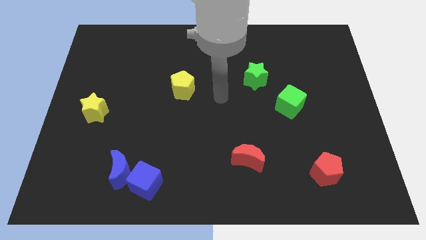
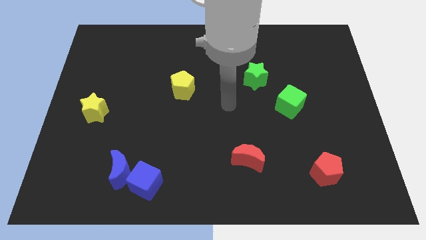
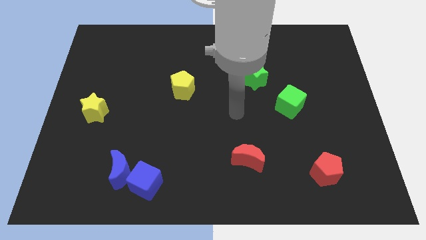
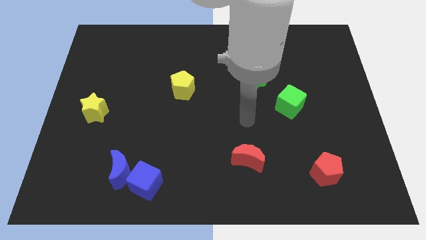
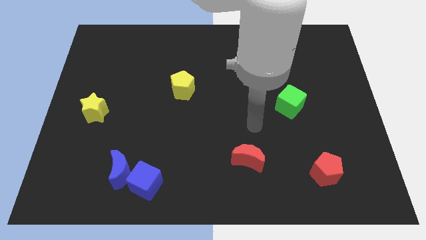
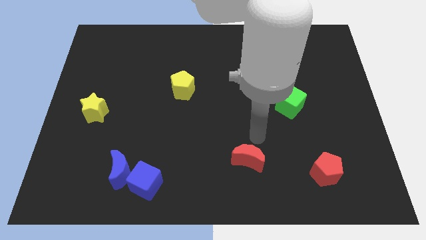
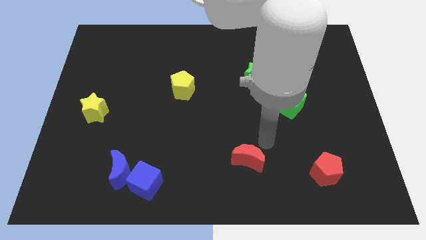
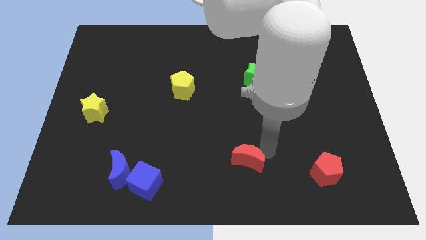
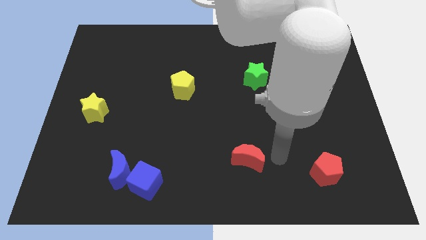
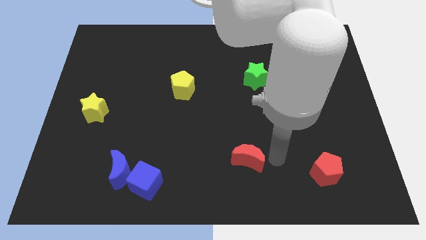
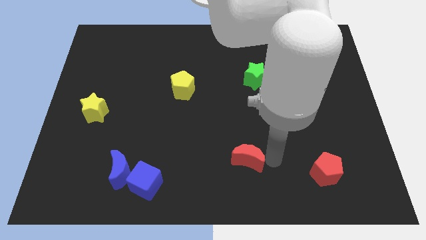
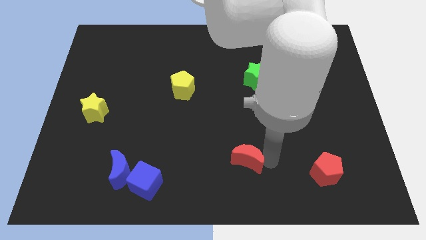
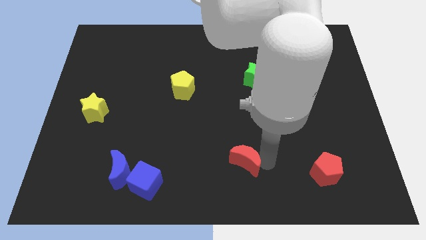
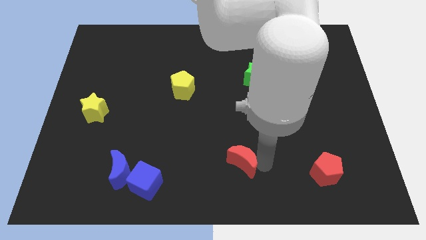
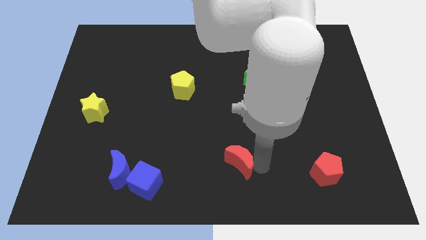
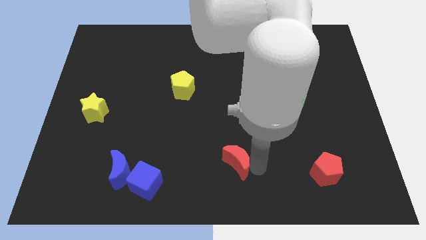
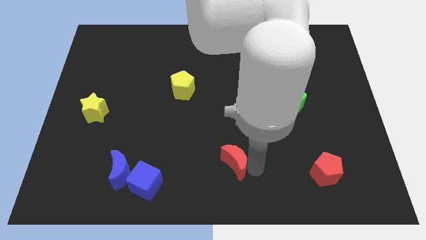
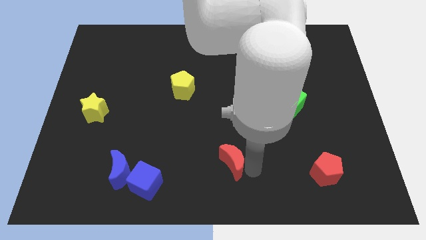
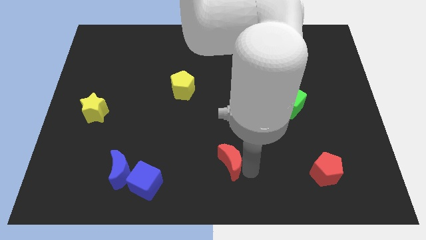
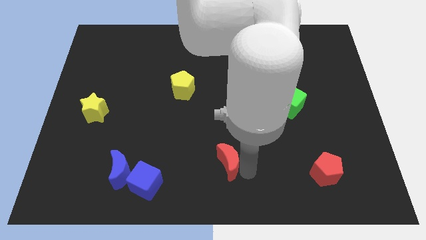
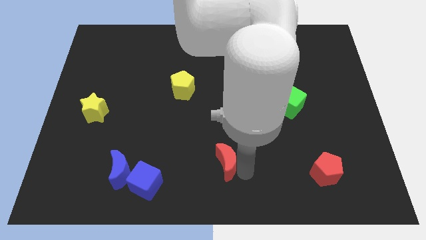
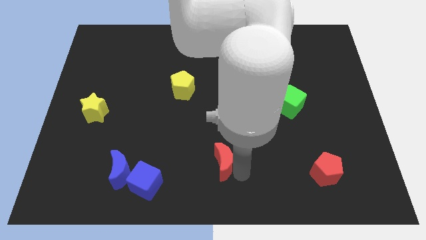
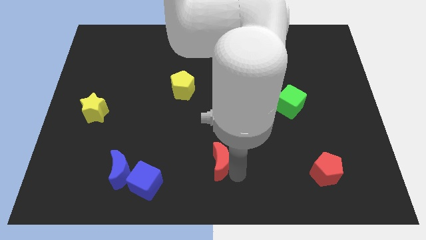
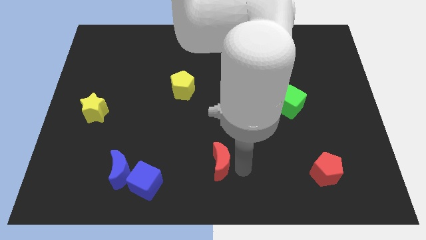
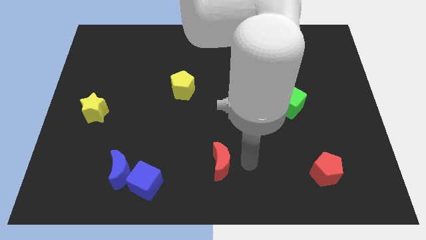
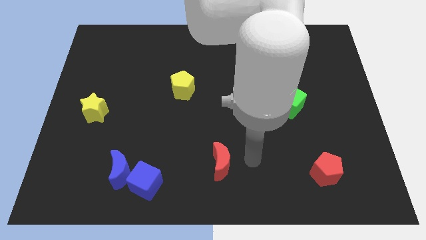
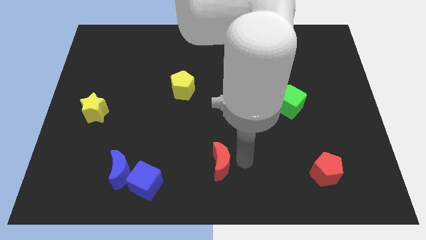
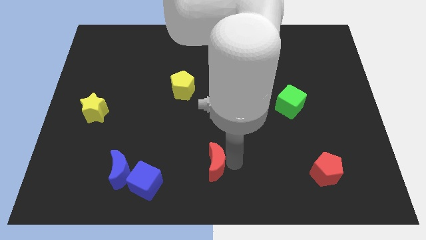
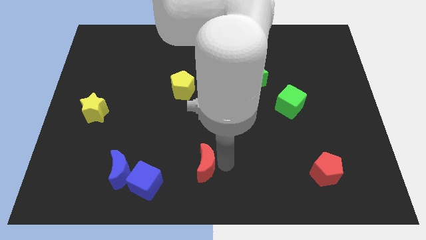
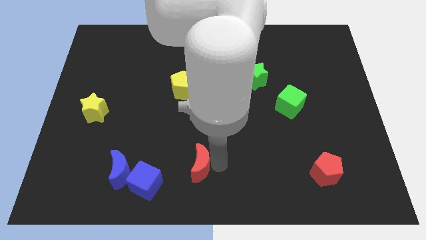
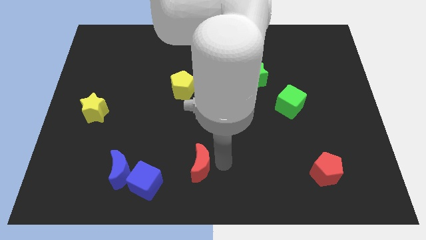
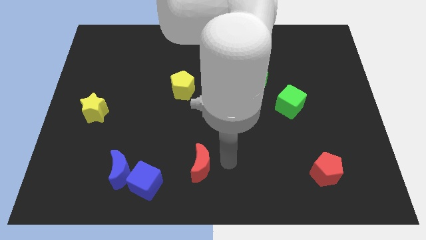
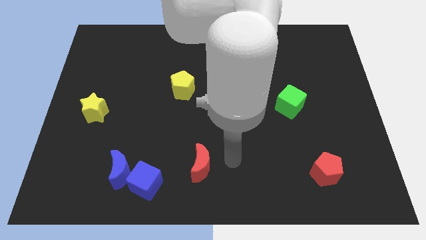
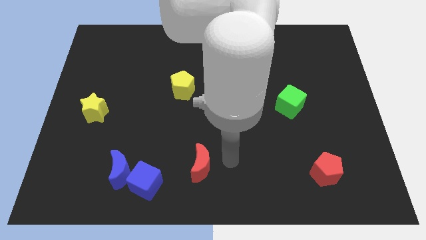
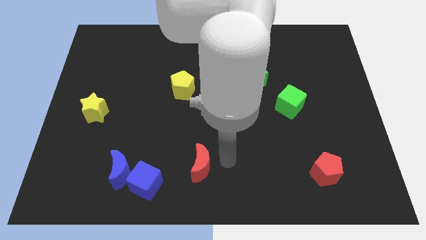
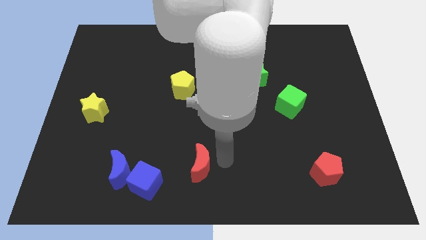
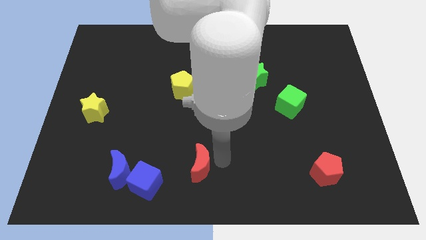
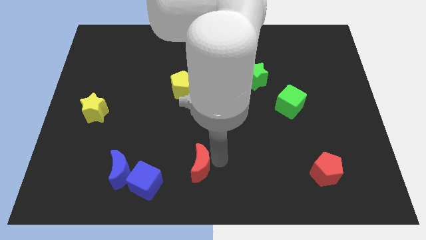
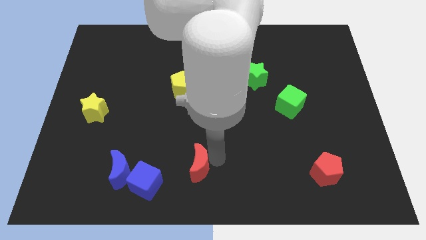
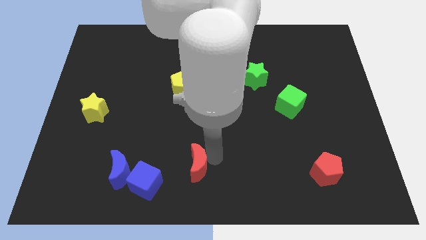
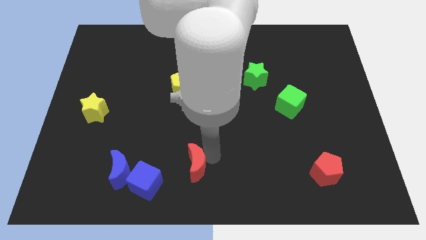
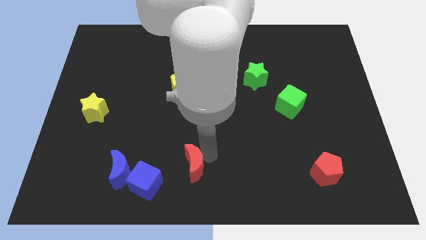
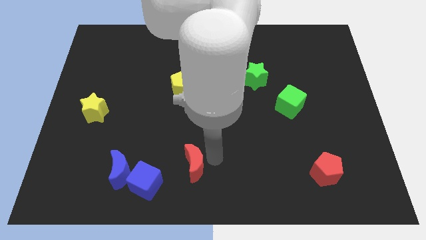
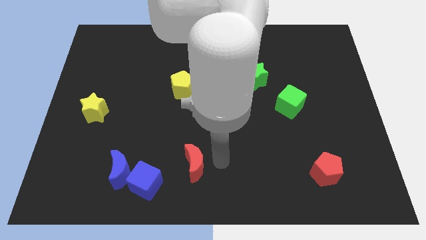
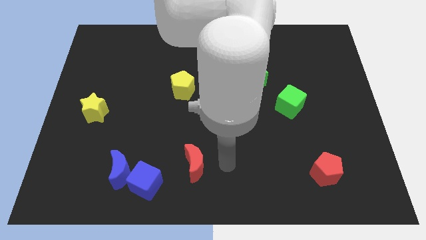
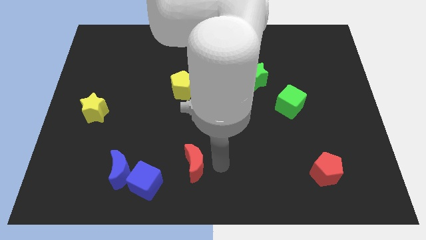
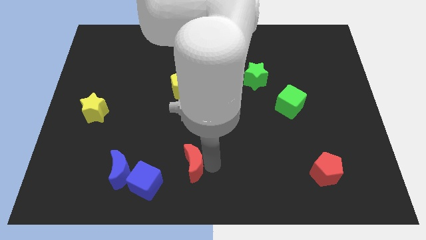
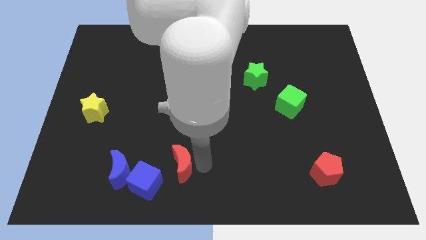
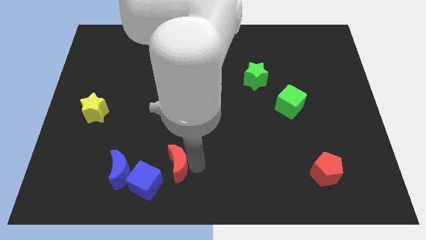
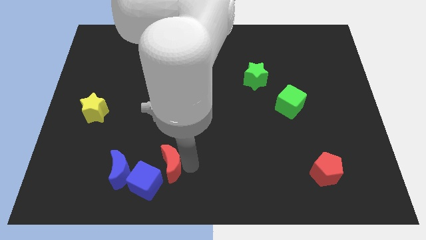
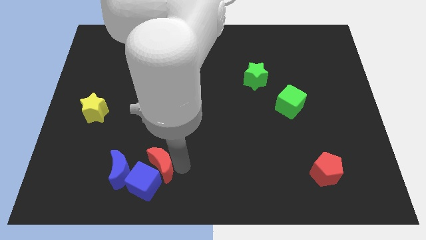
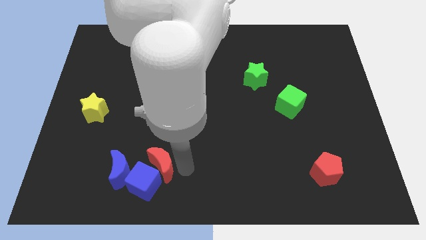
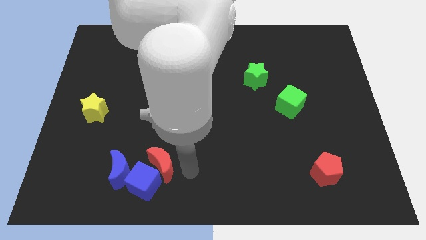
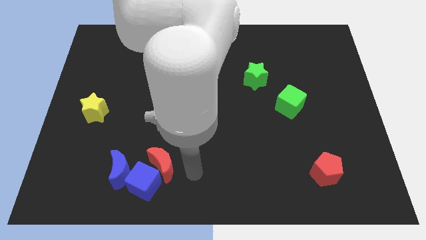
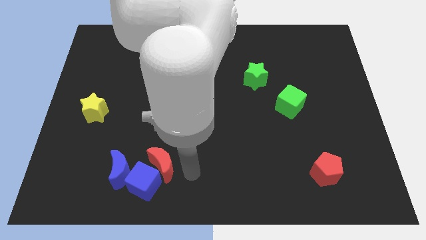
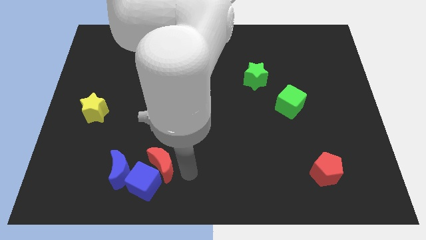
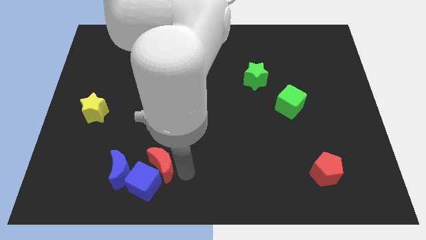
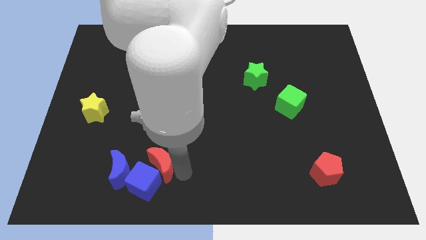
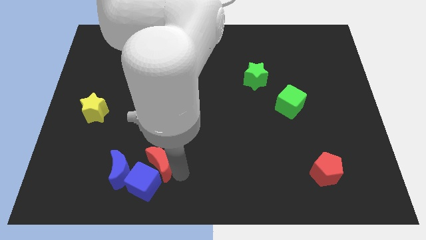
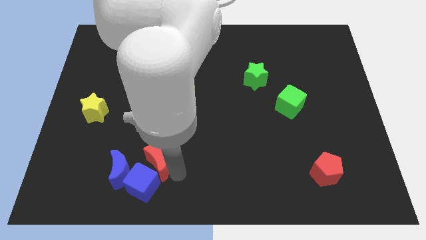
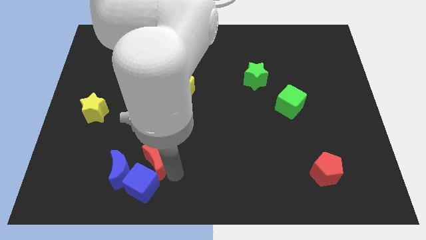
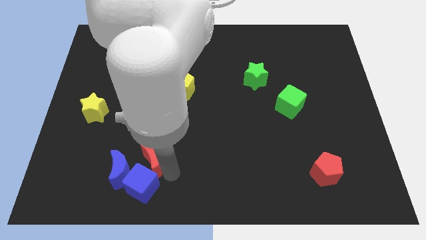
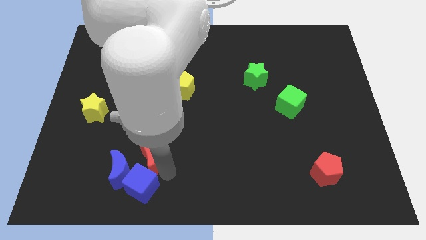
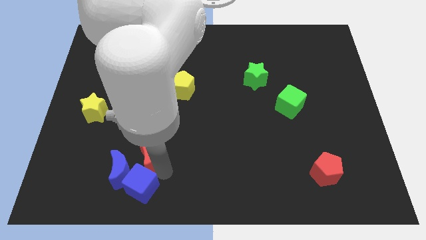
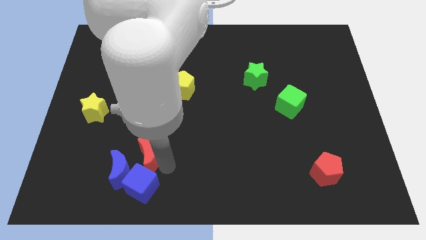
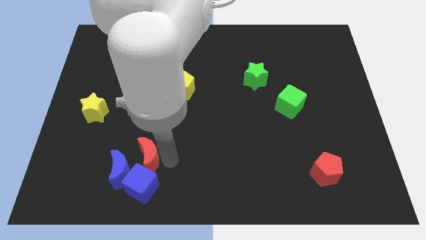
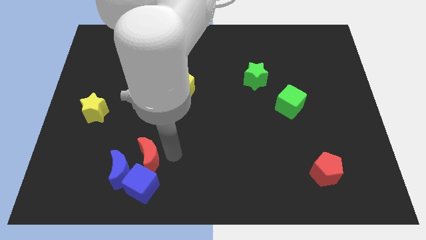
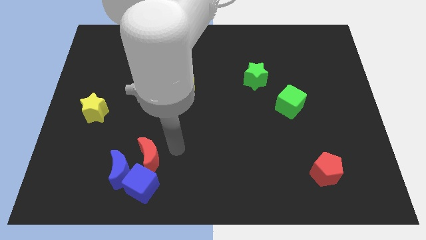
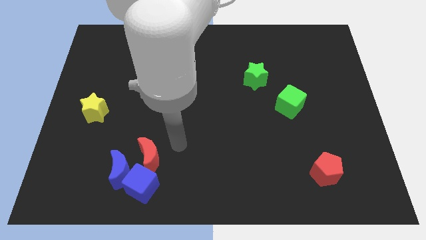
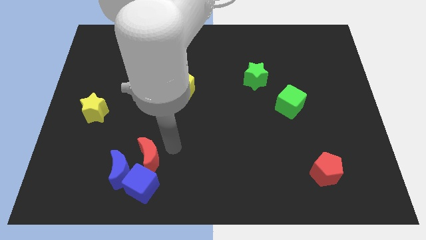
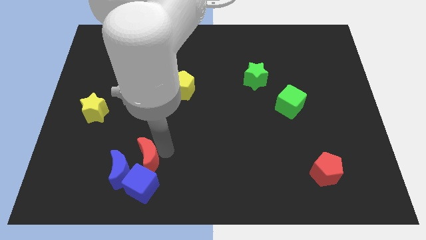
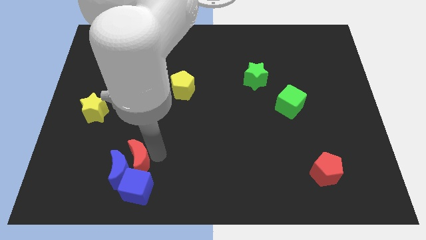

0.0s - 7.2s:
move the red moon close to the blue moon
